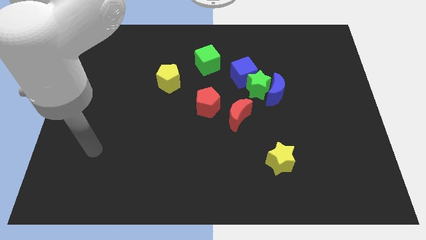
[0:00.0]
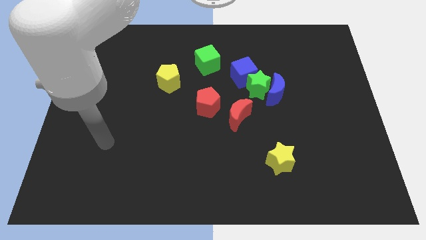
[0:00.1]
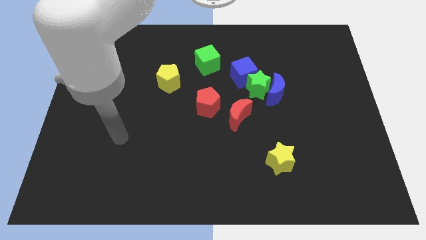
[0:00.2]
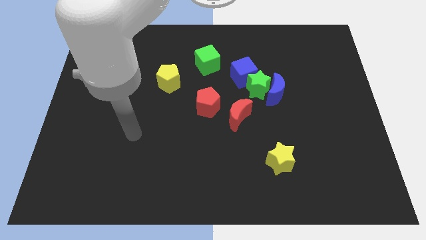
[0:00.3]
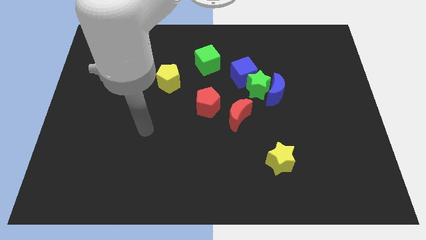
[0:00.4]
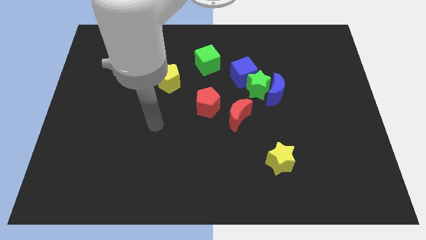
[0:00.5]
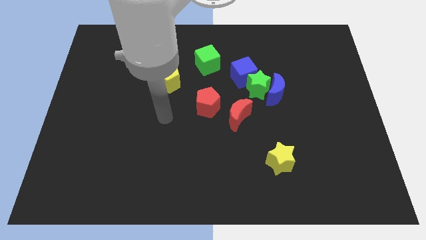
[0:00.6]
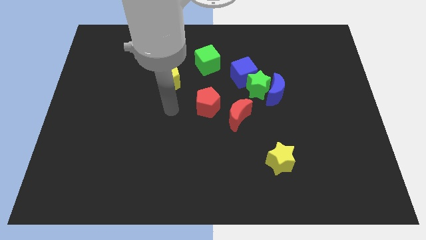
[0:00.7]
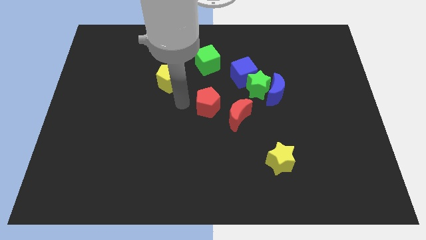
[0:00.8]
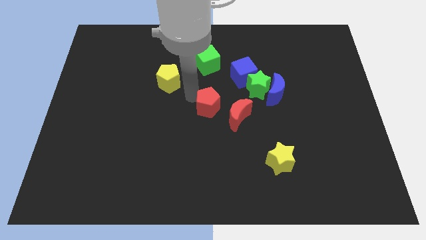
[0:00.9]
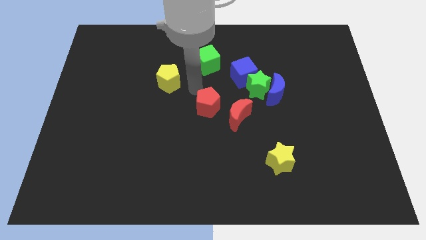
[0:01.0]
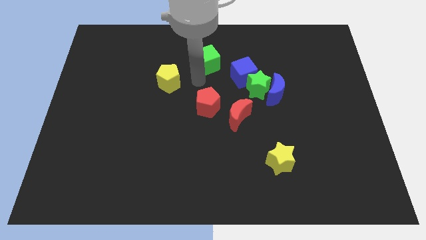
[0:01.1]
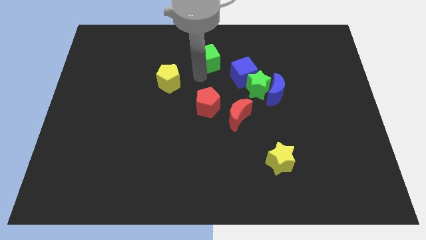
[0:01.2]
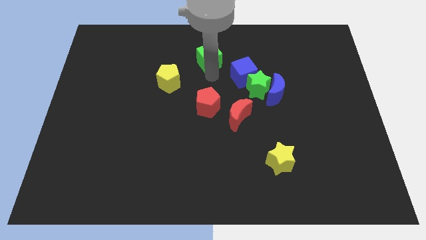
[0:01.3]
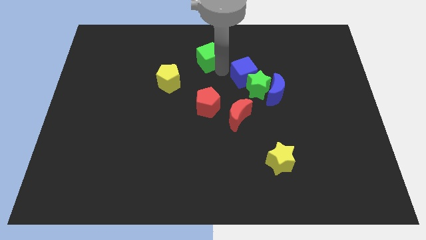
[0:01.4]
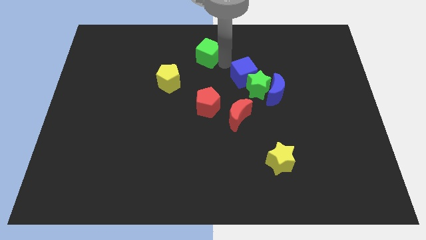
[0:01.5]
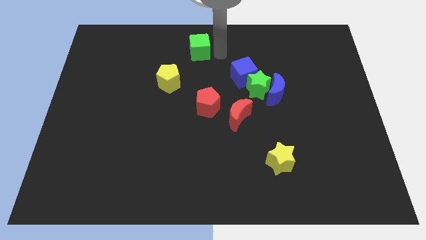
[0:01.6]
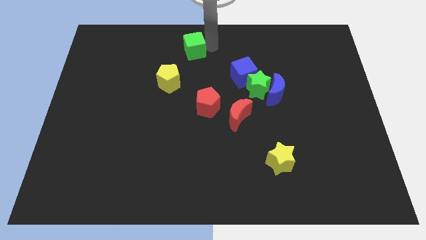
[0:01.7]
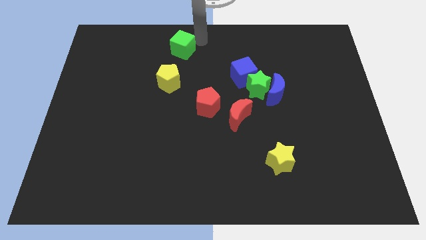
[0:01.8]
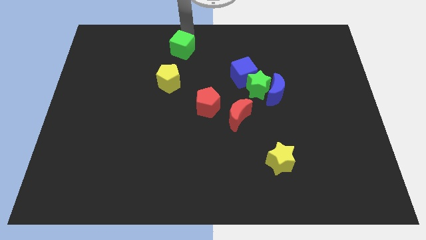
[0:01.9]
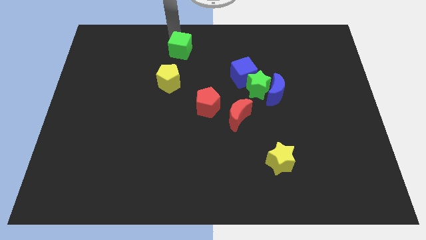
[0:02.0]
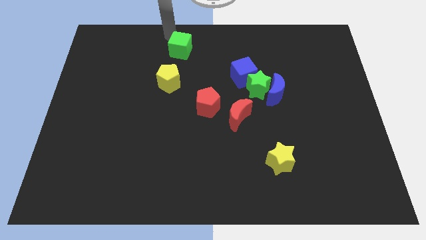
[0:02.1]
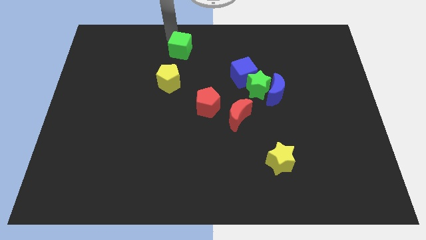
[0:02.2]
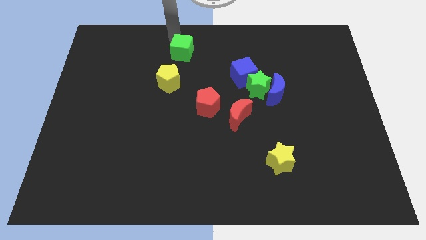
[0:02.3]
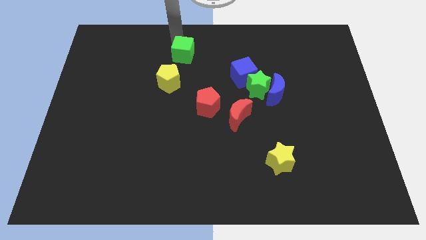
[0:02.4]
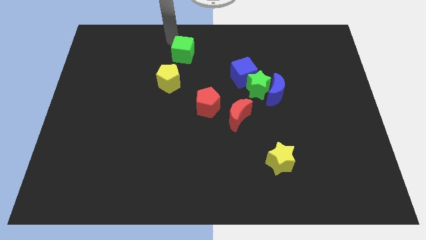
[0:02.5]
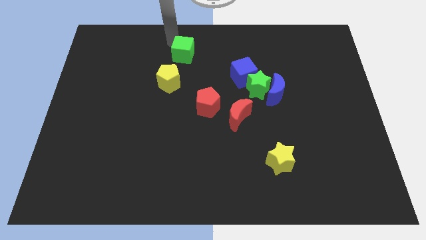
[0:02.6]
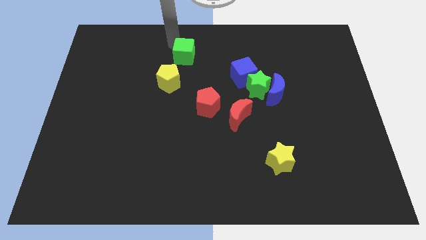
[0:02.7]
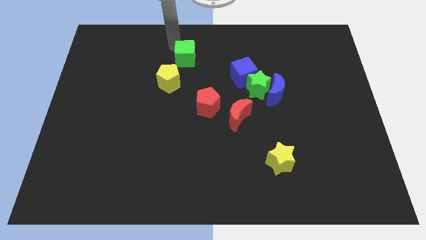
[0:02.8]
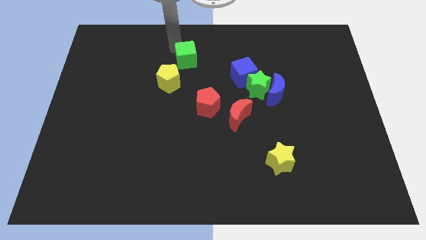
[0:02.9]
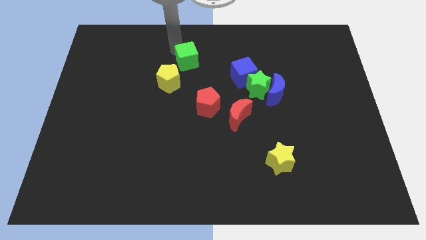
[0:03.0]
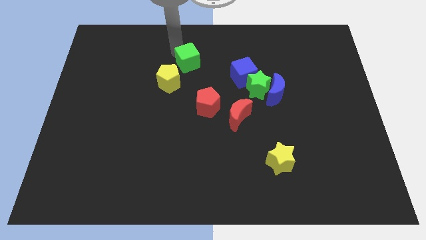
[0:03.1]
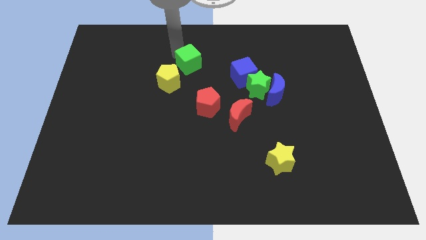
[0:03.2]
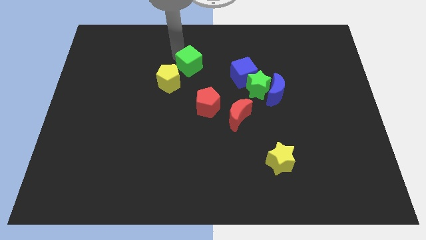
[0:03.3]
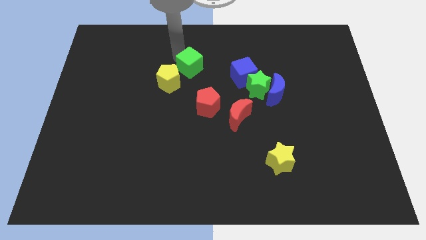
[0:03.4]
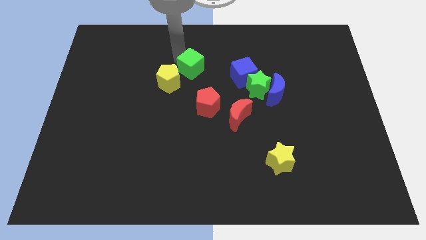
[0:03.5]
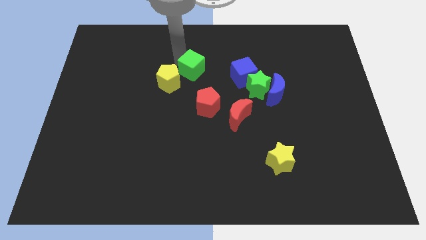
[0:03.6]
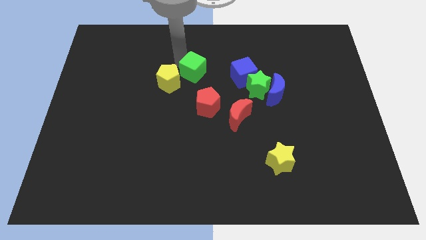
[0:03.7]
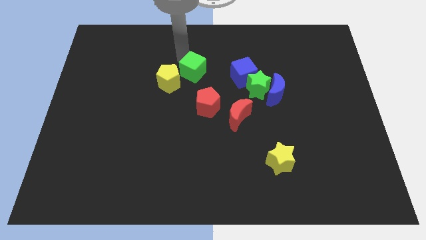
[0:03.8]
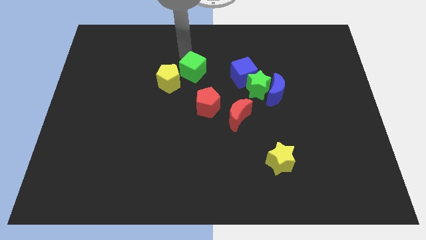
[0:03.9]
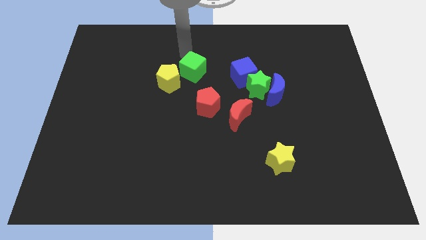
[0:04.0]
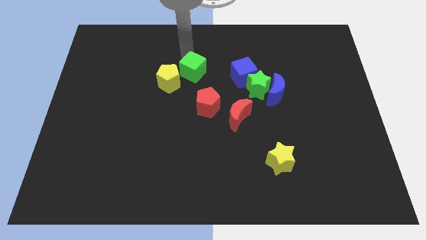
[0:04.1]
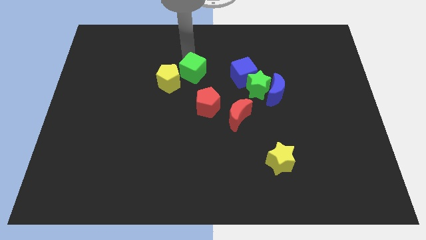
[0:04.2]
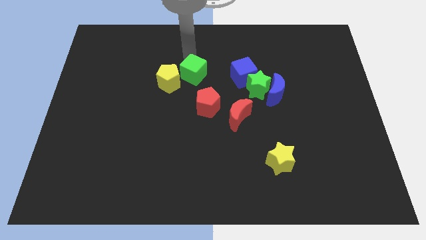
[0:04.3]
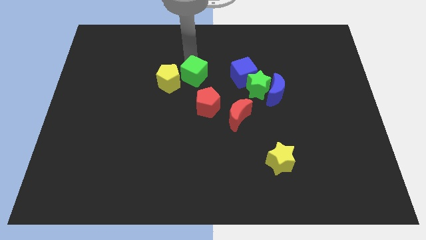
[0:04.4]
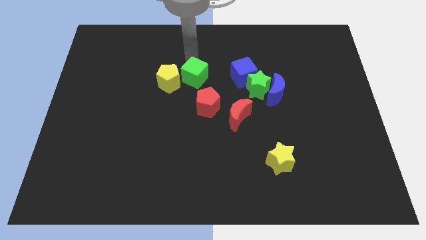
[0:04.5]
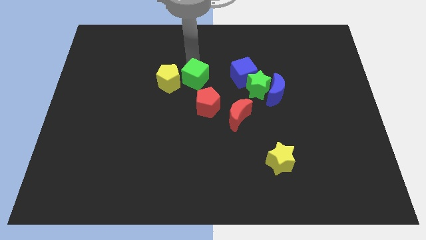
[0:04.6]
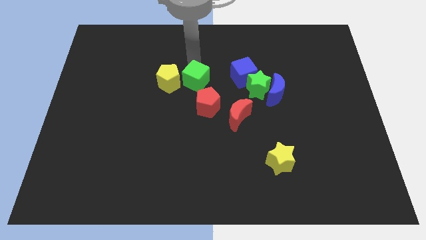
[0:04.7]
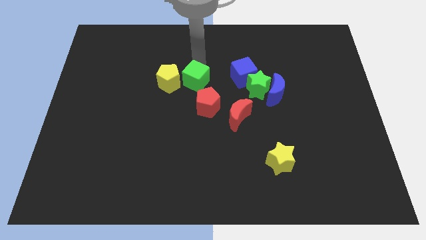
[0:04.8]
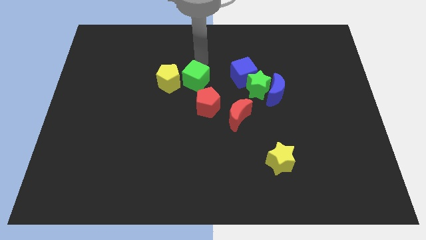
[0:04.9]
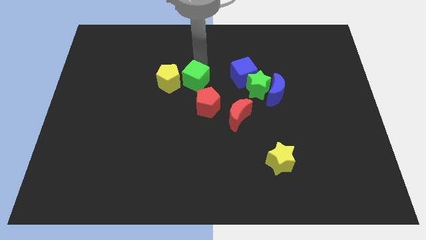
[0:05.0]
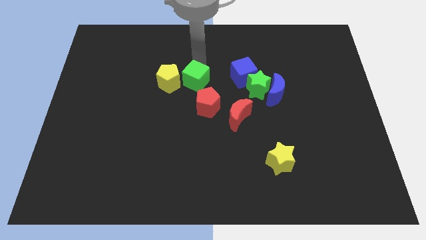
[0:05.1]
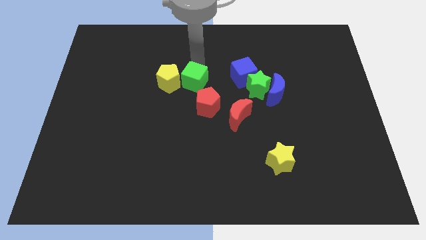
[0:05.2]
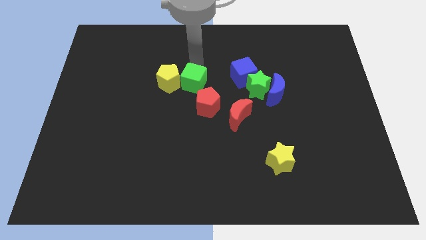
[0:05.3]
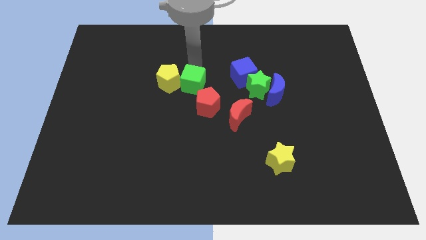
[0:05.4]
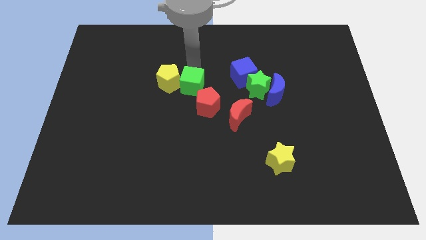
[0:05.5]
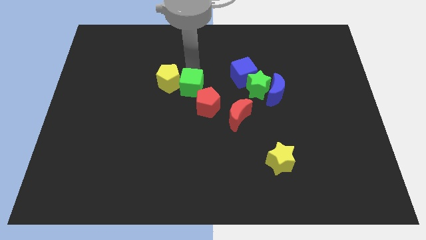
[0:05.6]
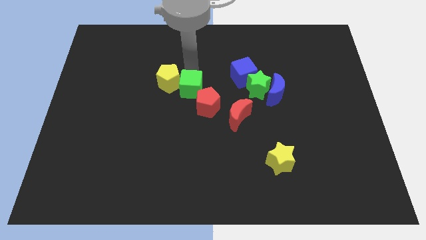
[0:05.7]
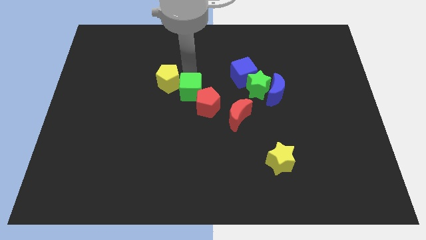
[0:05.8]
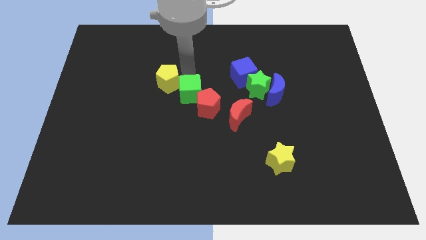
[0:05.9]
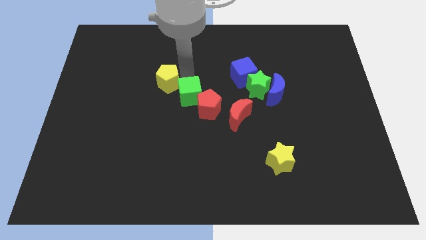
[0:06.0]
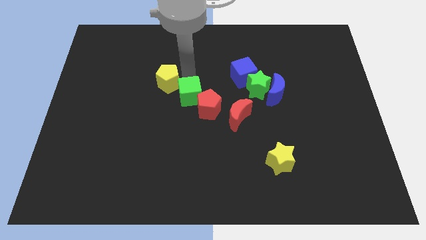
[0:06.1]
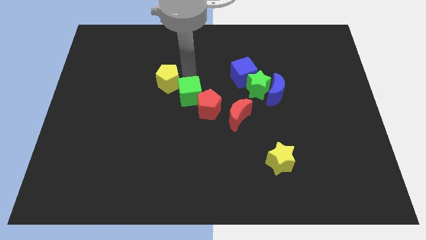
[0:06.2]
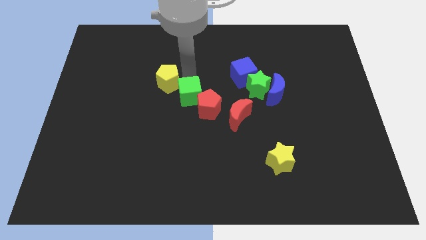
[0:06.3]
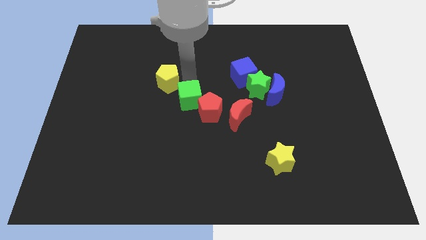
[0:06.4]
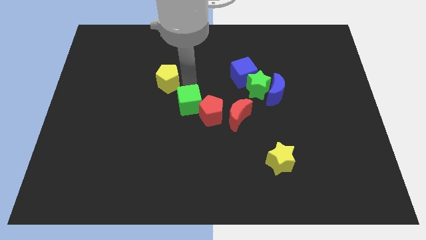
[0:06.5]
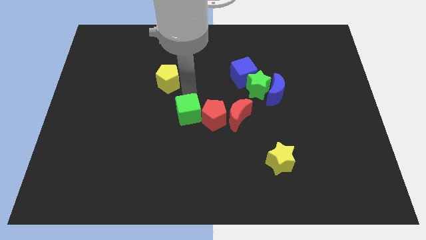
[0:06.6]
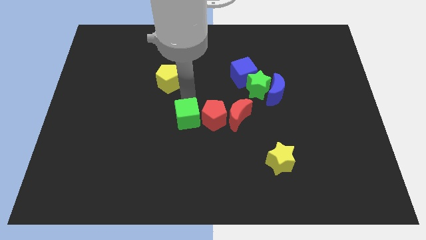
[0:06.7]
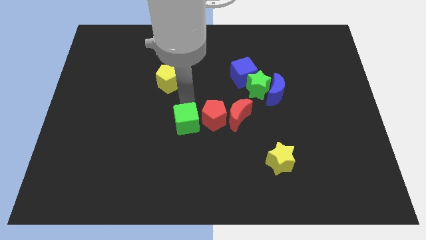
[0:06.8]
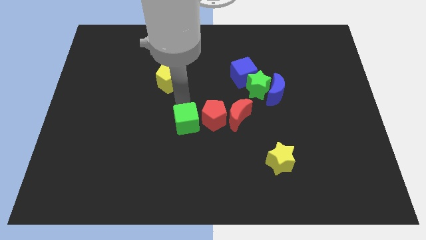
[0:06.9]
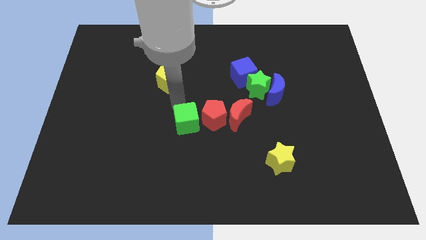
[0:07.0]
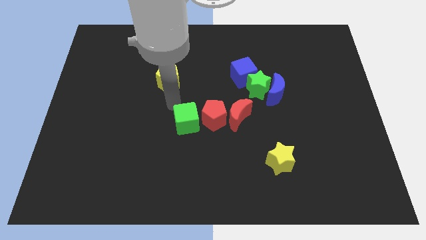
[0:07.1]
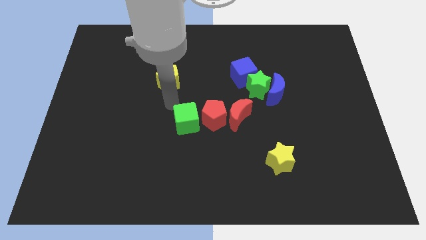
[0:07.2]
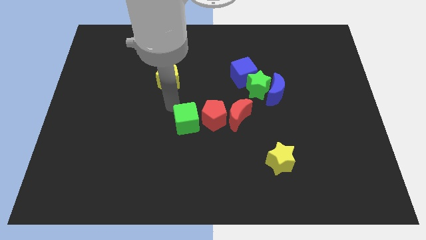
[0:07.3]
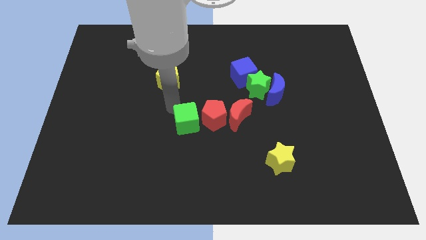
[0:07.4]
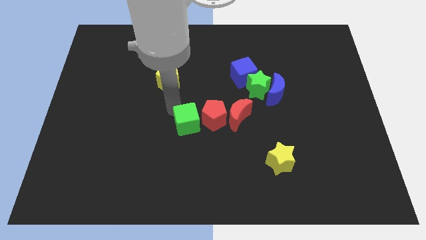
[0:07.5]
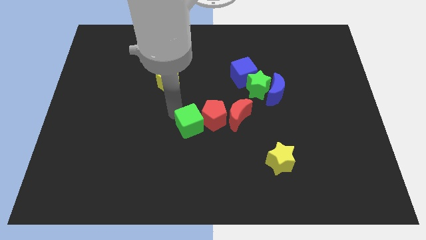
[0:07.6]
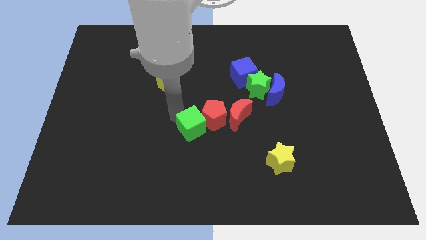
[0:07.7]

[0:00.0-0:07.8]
push the green cube down

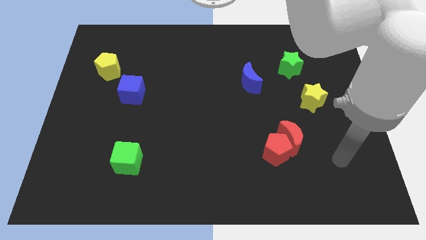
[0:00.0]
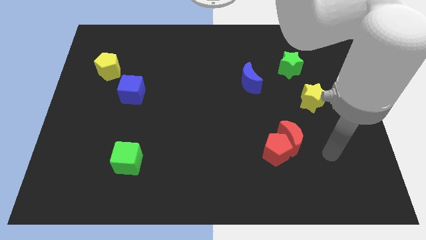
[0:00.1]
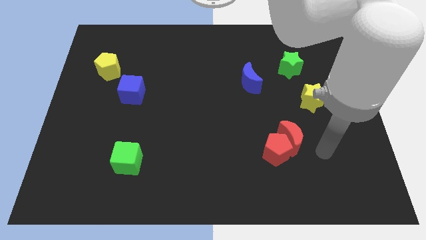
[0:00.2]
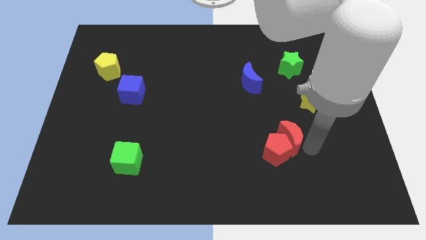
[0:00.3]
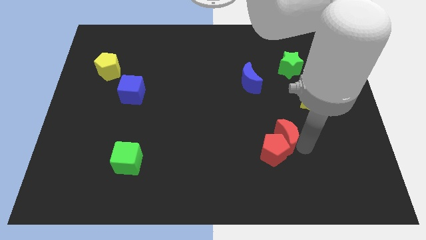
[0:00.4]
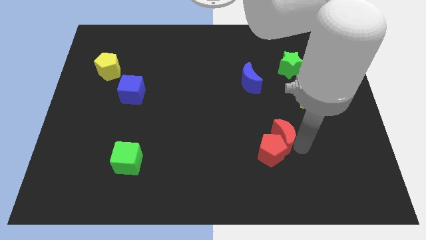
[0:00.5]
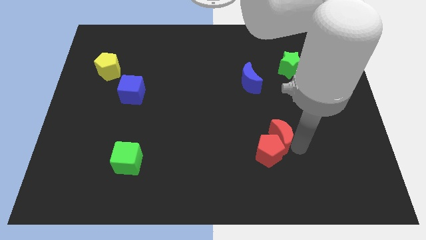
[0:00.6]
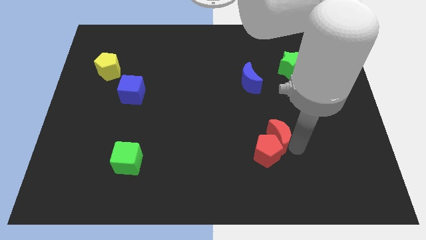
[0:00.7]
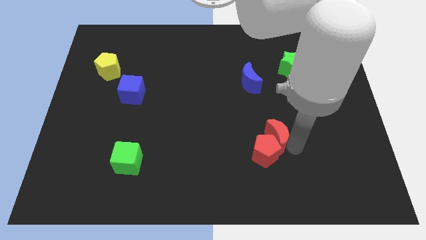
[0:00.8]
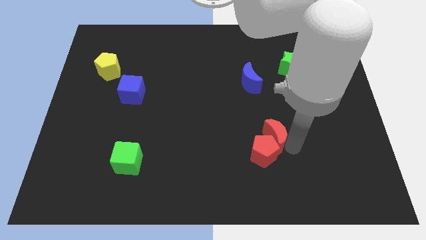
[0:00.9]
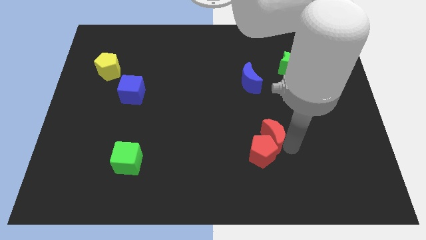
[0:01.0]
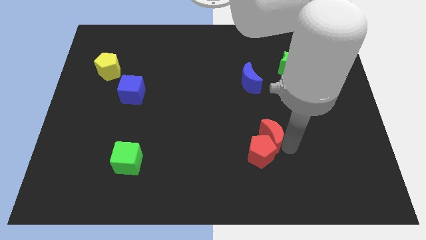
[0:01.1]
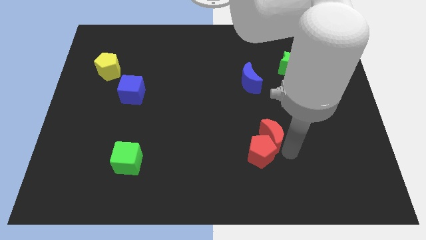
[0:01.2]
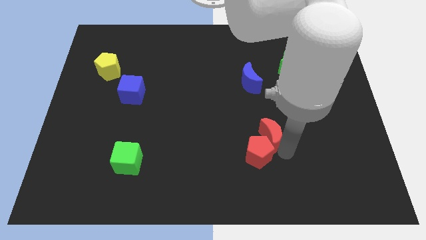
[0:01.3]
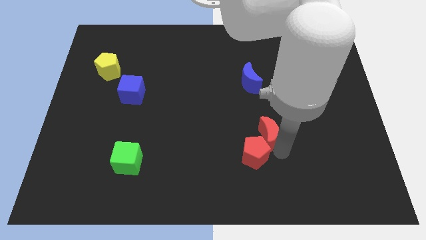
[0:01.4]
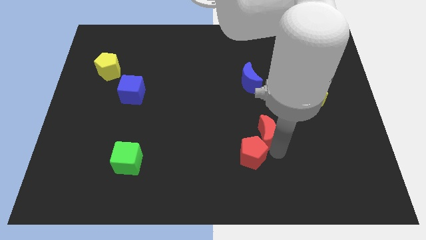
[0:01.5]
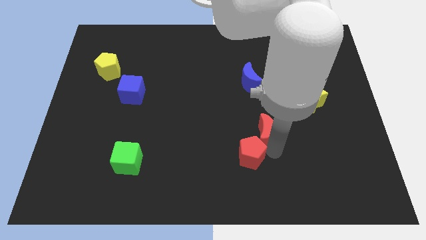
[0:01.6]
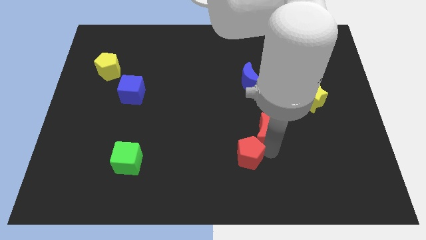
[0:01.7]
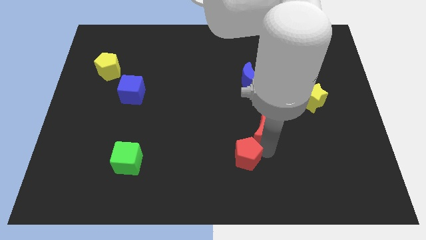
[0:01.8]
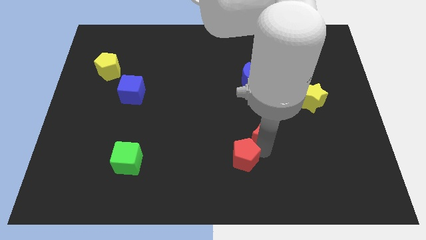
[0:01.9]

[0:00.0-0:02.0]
slightly move the red pentagon to the left
